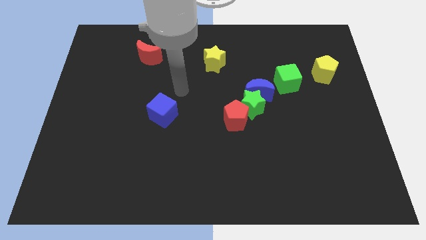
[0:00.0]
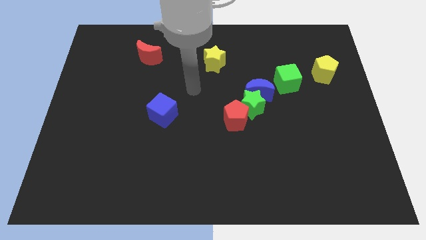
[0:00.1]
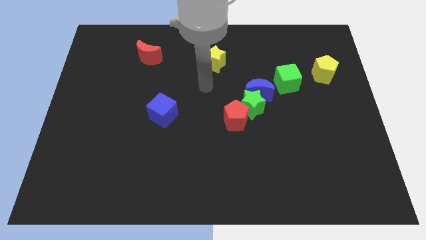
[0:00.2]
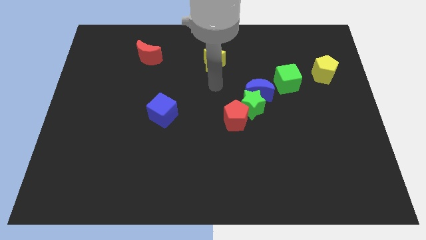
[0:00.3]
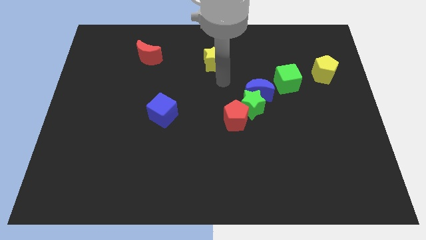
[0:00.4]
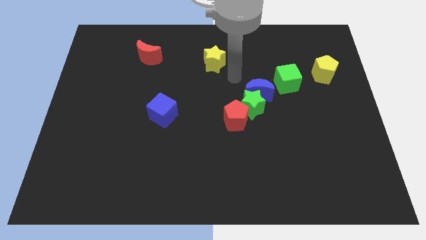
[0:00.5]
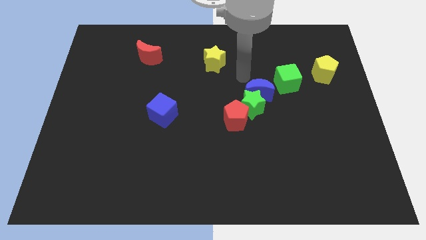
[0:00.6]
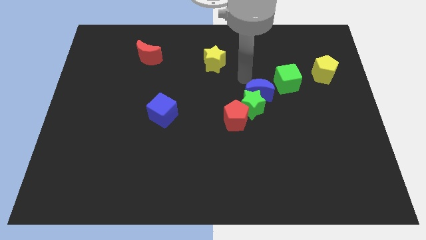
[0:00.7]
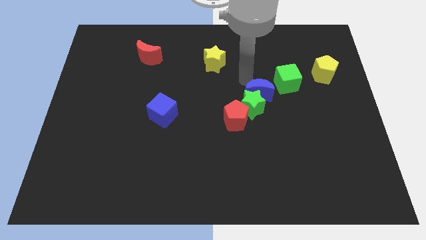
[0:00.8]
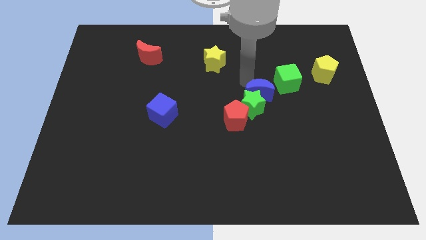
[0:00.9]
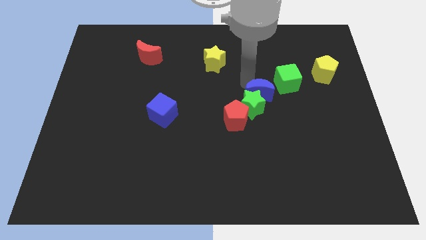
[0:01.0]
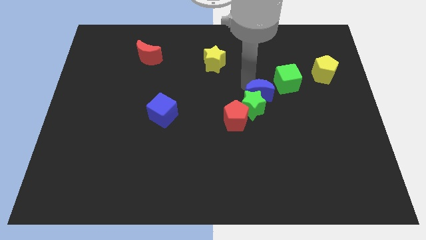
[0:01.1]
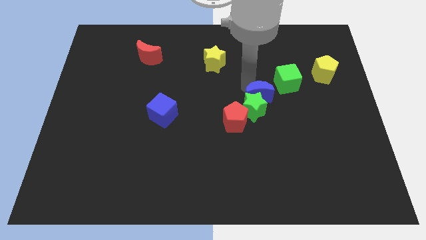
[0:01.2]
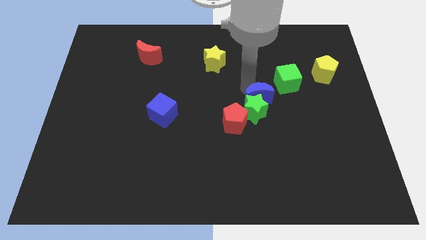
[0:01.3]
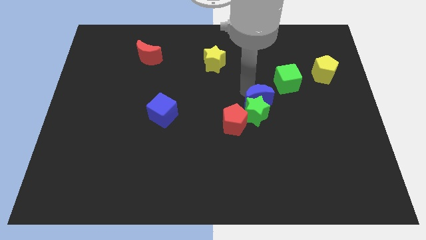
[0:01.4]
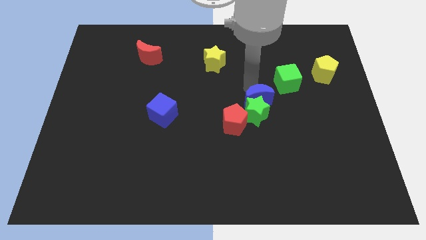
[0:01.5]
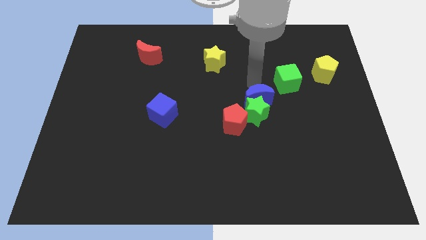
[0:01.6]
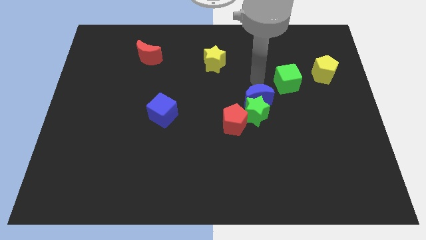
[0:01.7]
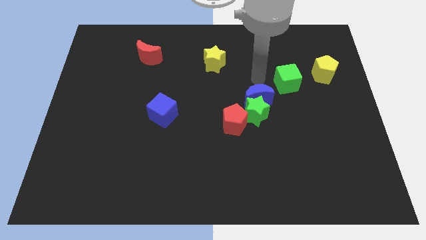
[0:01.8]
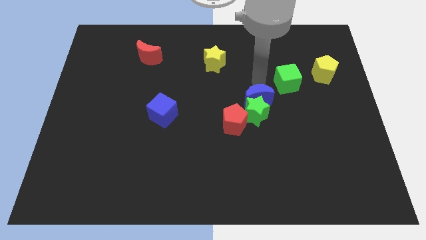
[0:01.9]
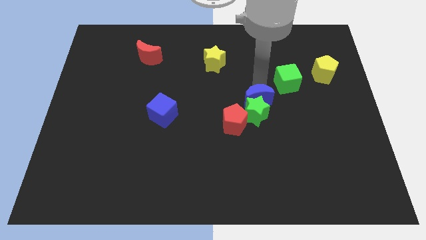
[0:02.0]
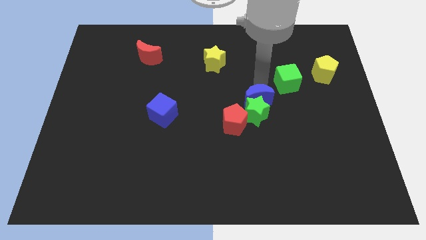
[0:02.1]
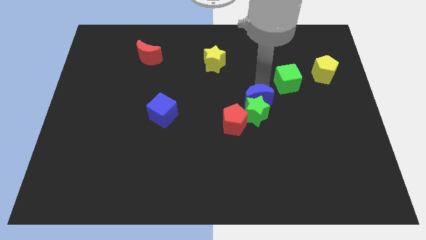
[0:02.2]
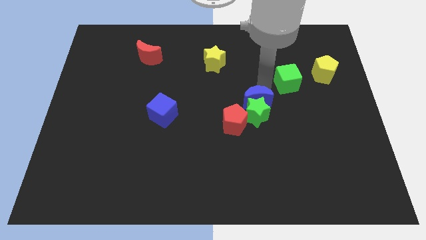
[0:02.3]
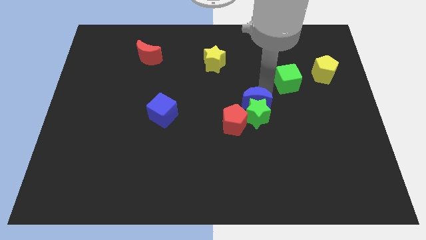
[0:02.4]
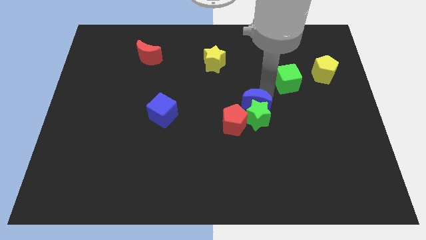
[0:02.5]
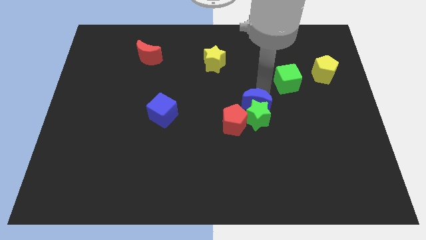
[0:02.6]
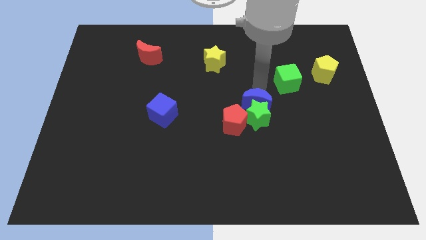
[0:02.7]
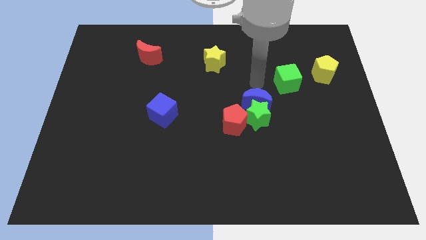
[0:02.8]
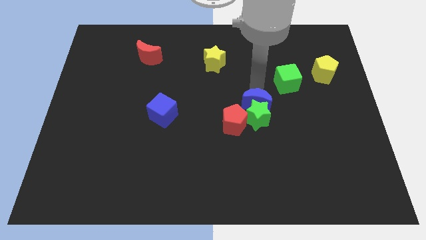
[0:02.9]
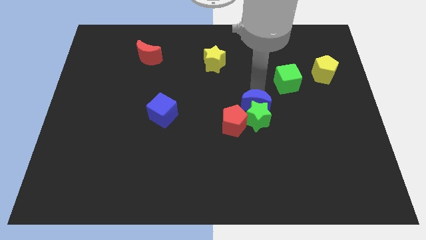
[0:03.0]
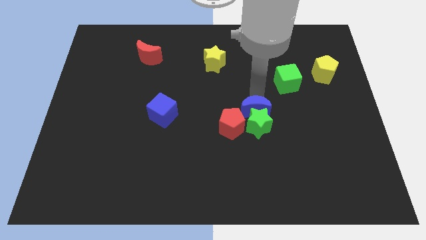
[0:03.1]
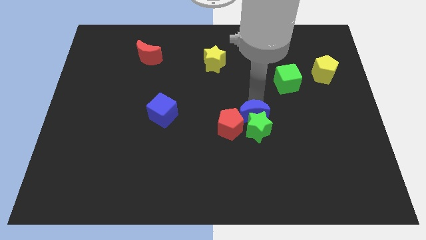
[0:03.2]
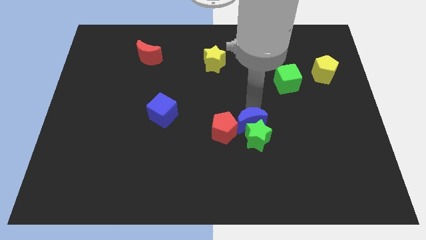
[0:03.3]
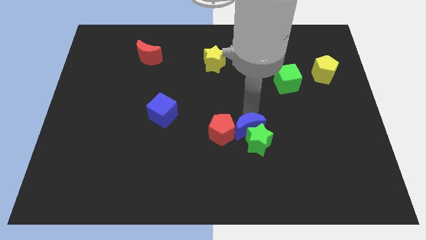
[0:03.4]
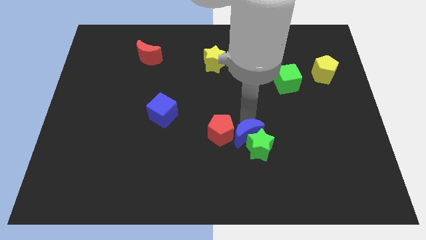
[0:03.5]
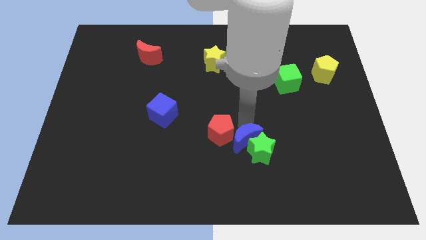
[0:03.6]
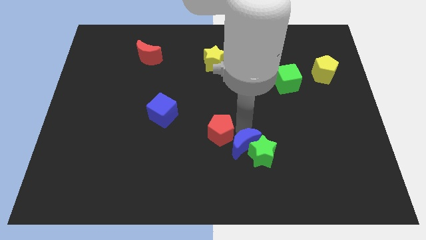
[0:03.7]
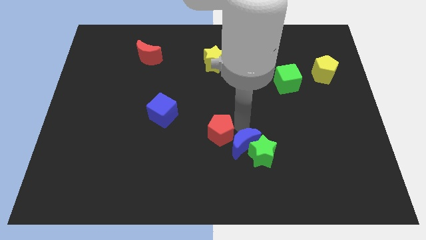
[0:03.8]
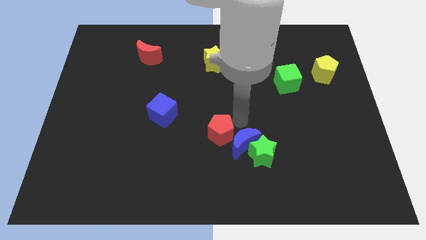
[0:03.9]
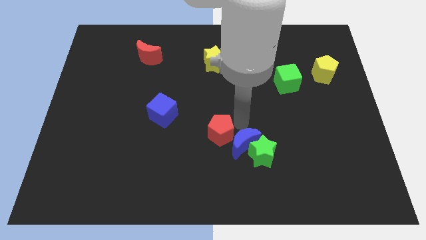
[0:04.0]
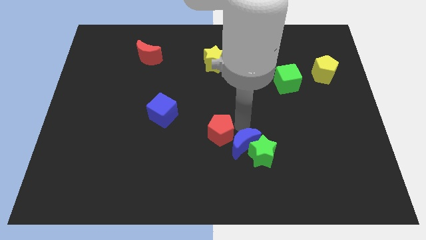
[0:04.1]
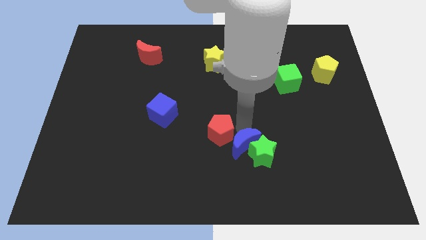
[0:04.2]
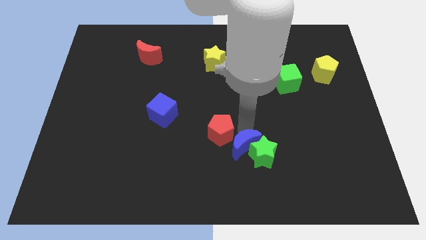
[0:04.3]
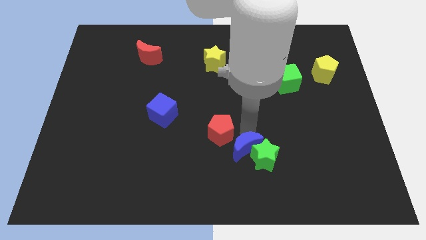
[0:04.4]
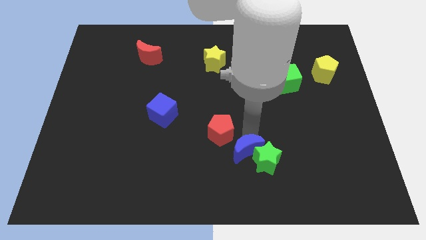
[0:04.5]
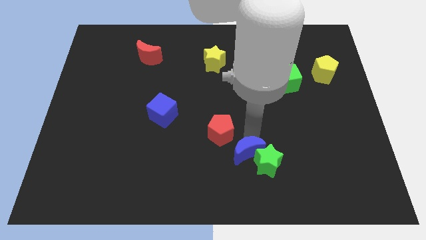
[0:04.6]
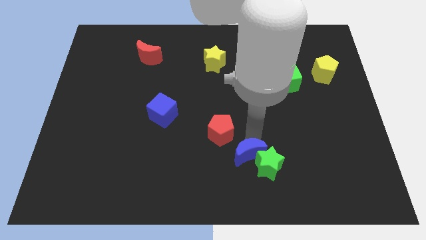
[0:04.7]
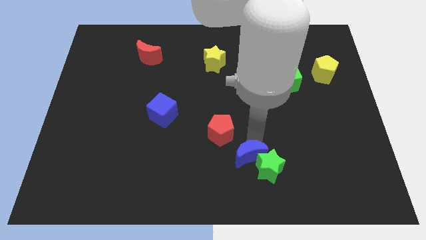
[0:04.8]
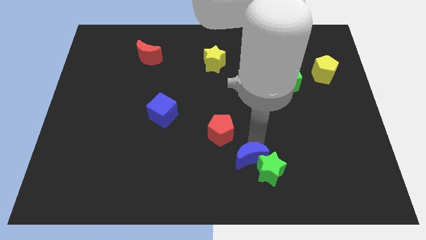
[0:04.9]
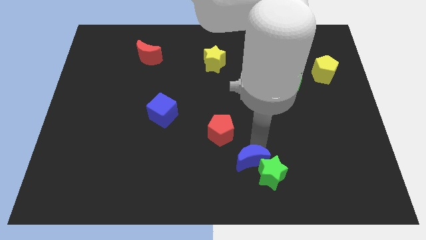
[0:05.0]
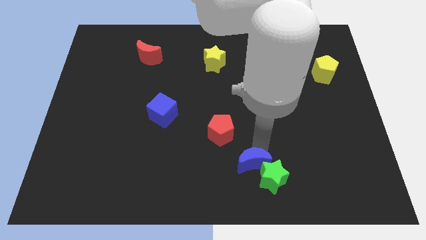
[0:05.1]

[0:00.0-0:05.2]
put the blue moon to the bottom side

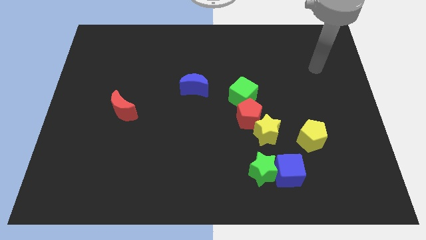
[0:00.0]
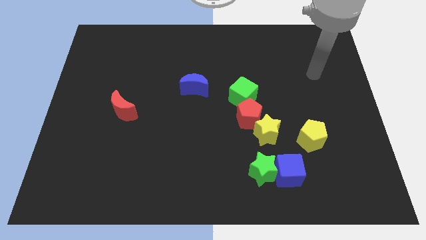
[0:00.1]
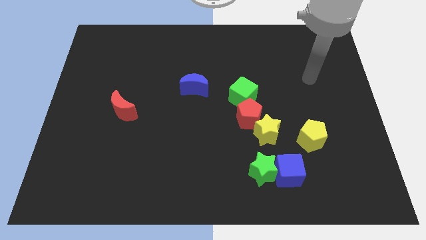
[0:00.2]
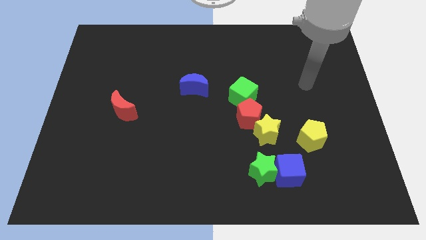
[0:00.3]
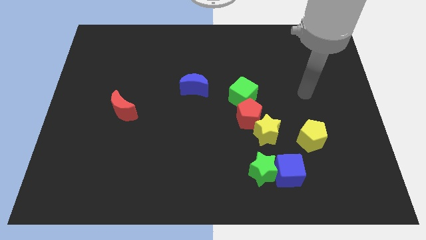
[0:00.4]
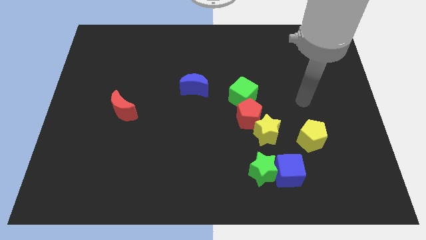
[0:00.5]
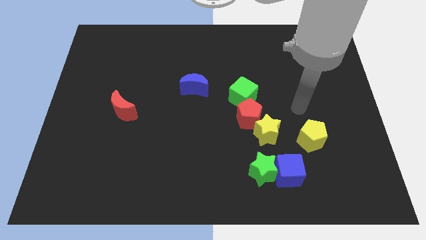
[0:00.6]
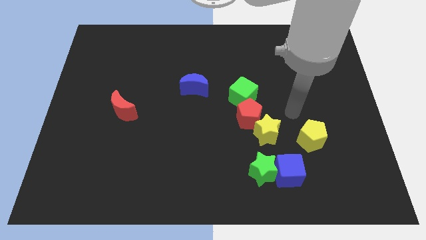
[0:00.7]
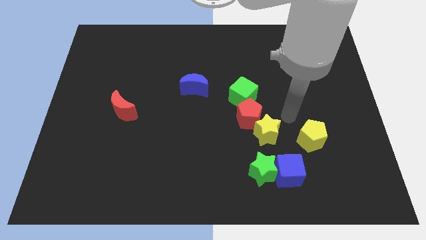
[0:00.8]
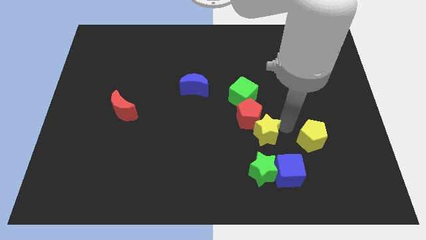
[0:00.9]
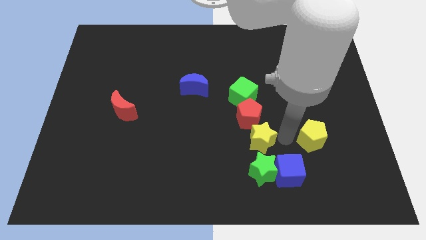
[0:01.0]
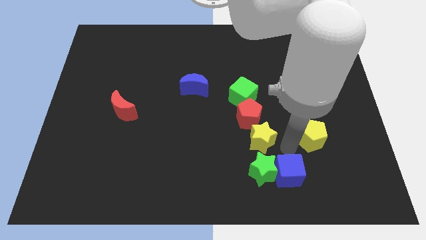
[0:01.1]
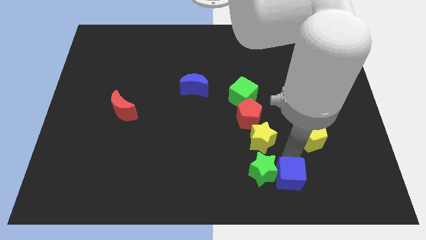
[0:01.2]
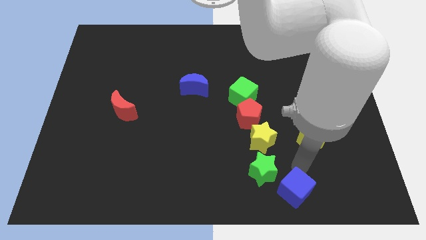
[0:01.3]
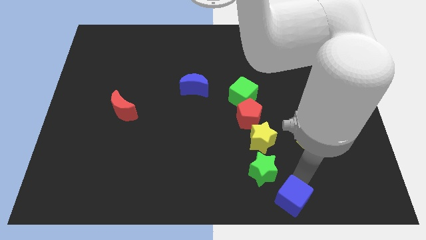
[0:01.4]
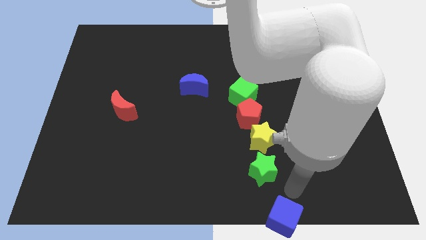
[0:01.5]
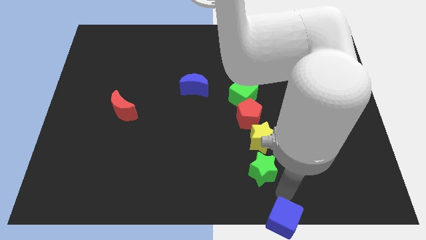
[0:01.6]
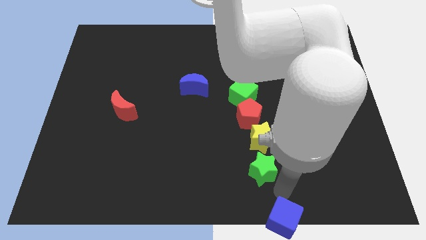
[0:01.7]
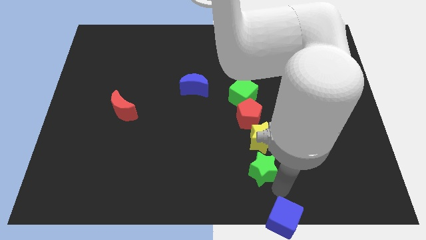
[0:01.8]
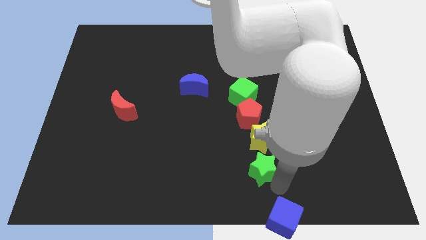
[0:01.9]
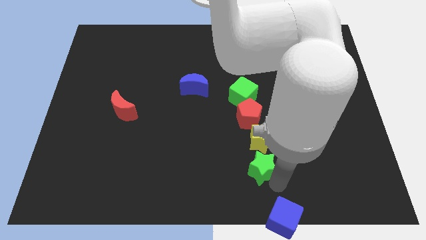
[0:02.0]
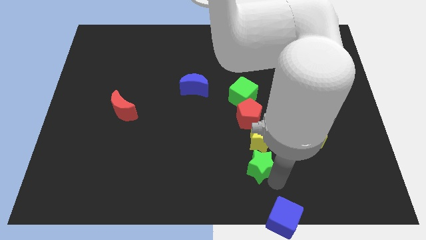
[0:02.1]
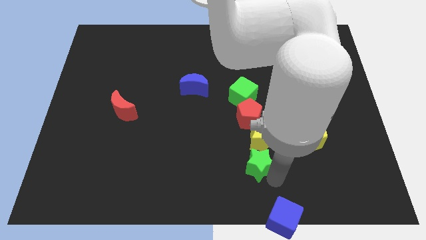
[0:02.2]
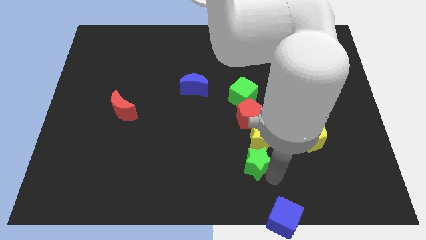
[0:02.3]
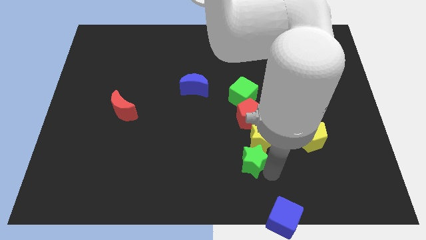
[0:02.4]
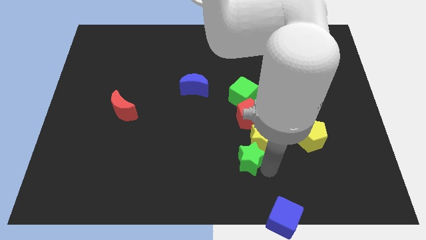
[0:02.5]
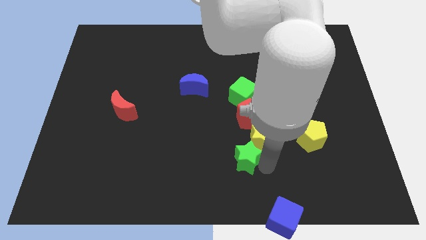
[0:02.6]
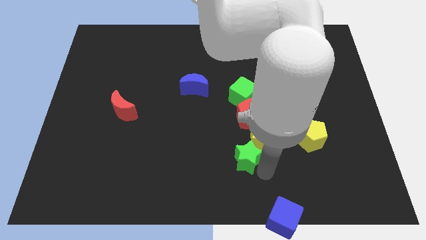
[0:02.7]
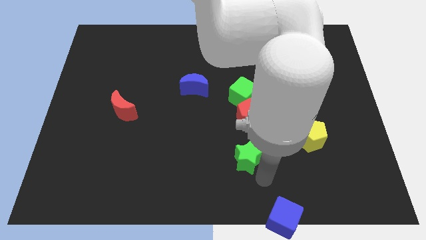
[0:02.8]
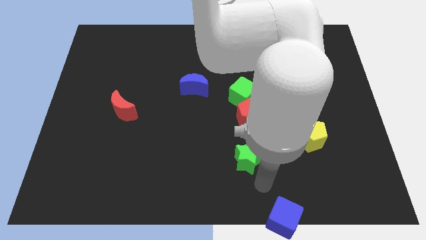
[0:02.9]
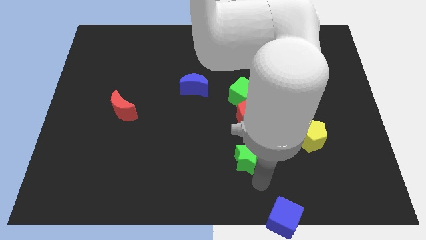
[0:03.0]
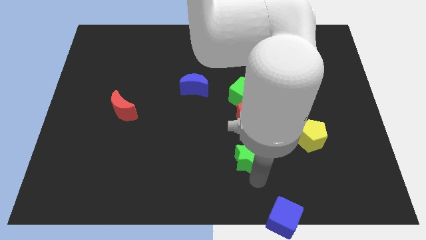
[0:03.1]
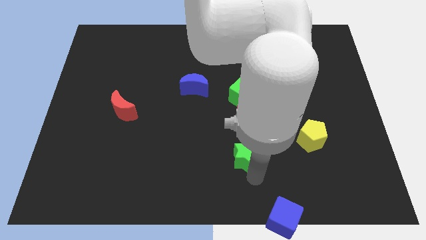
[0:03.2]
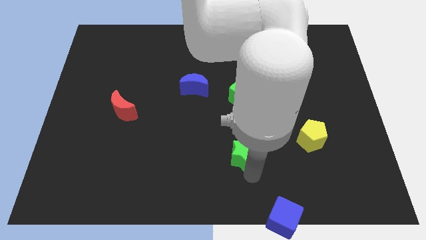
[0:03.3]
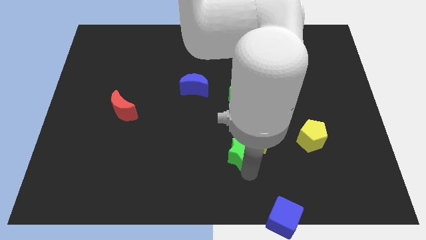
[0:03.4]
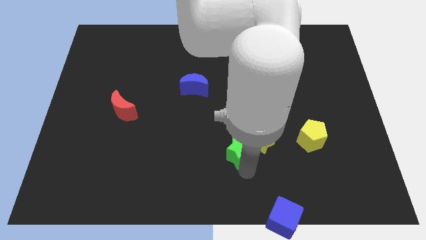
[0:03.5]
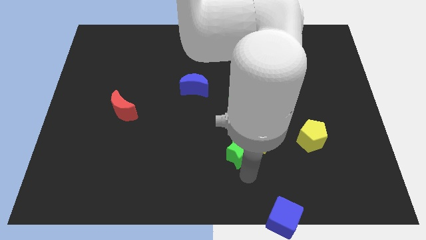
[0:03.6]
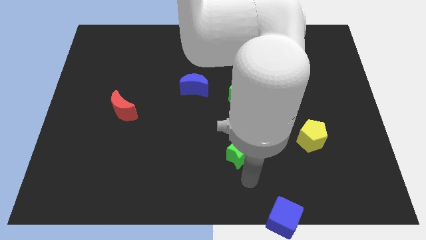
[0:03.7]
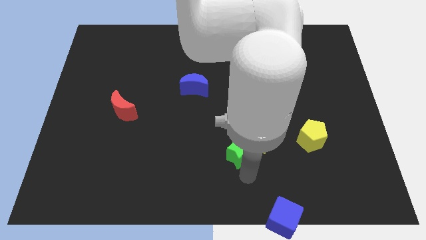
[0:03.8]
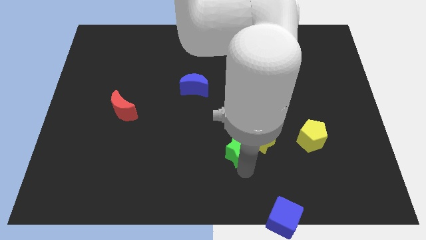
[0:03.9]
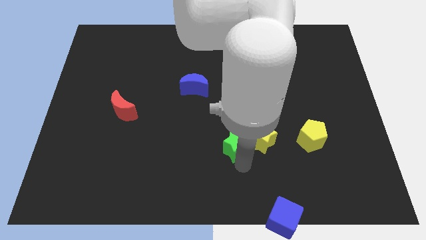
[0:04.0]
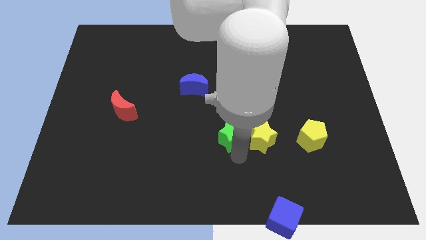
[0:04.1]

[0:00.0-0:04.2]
push the green star to the middle of the board
